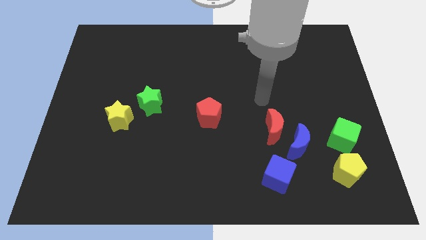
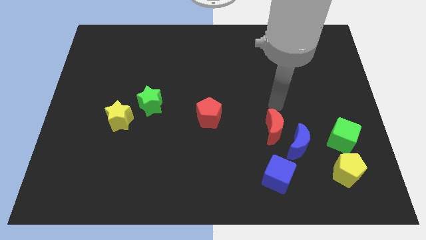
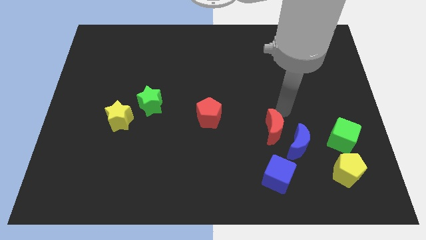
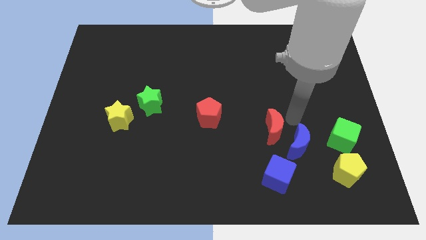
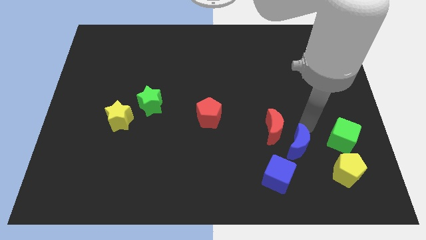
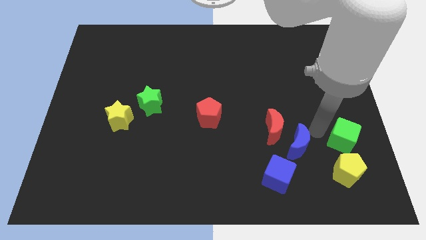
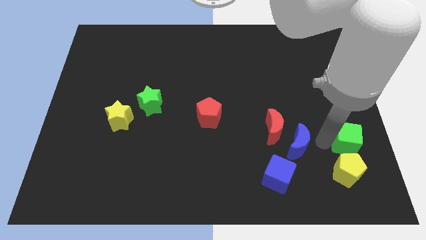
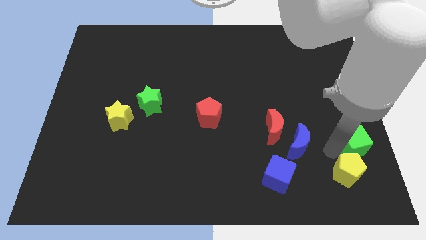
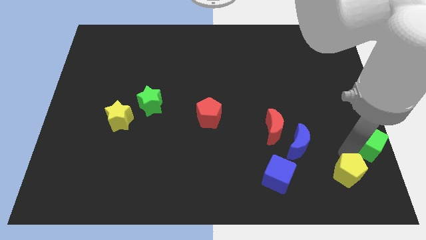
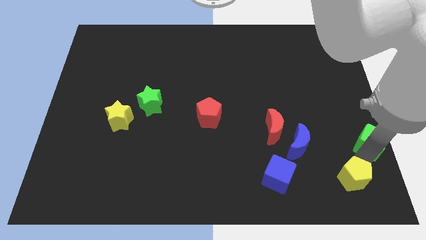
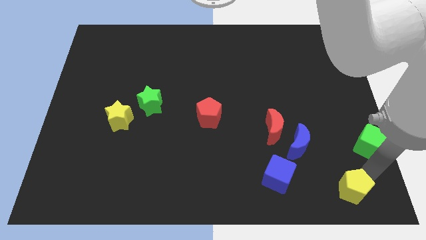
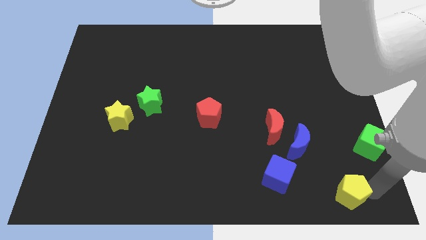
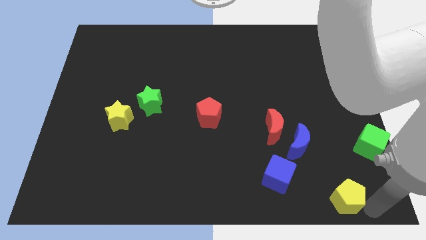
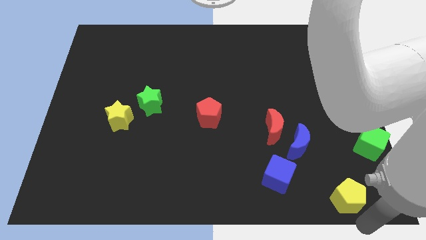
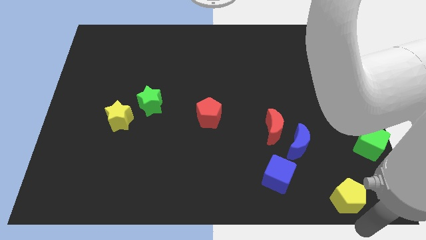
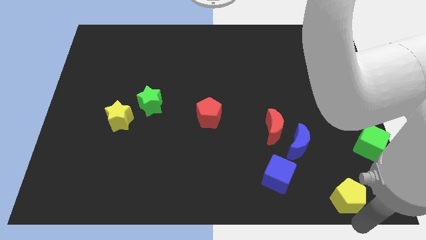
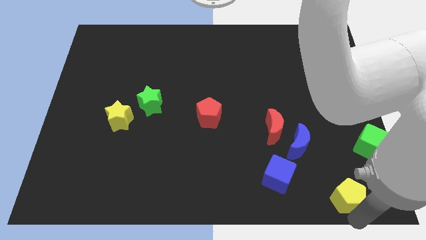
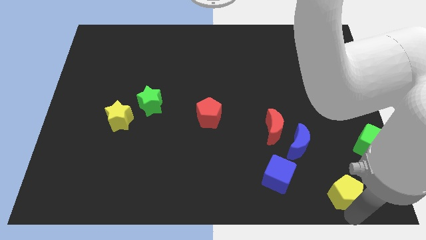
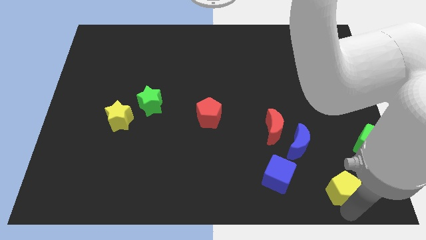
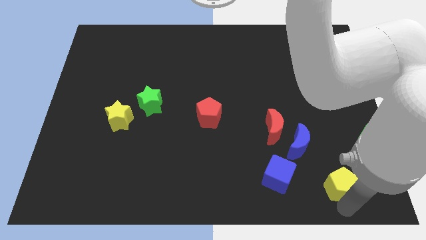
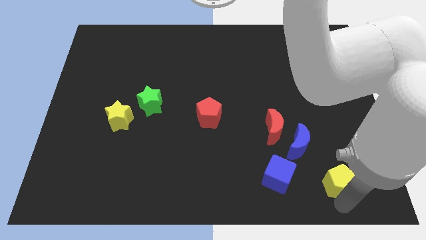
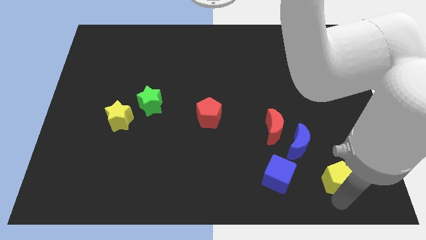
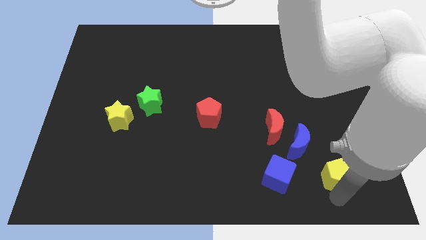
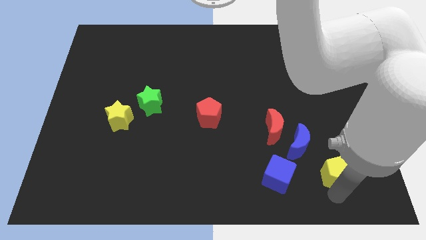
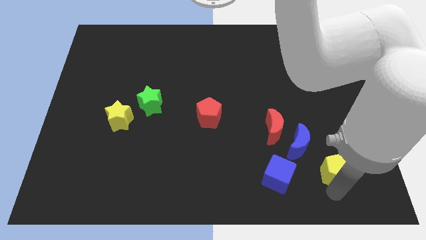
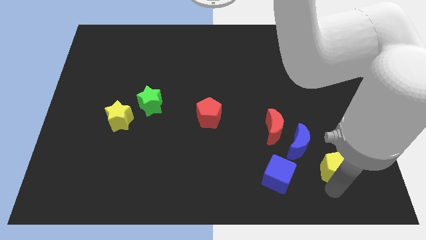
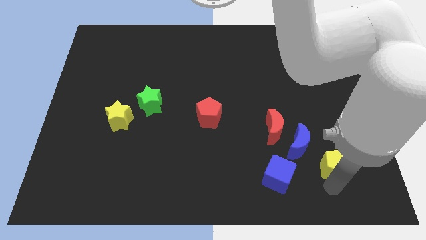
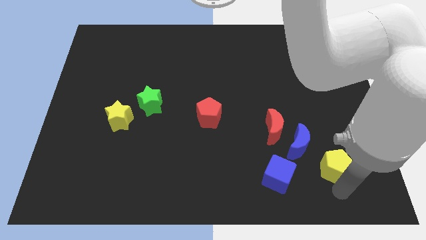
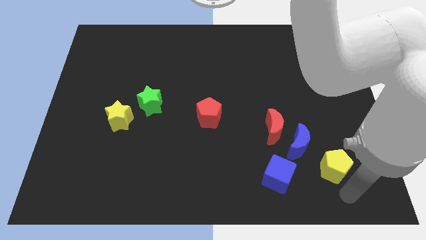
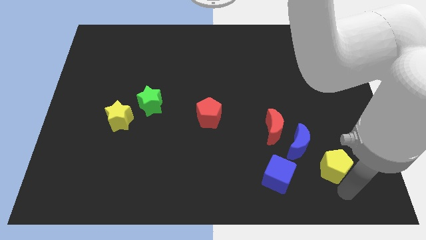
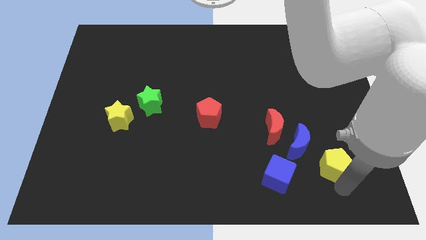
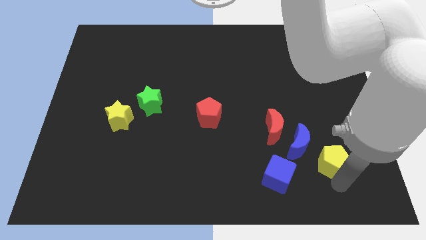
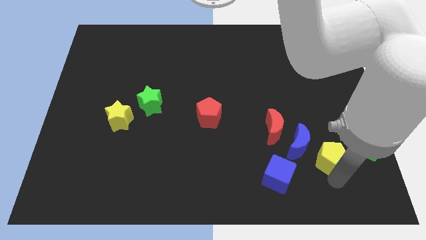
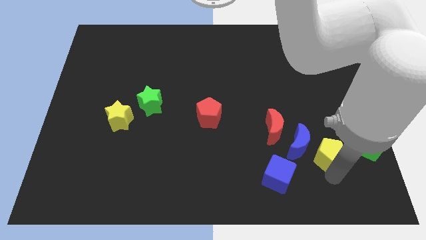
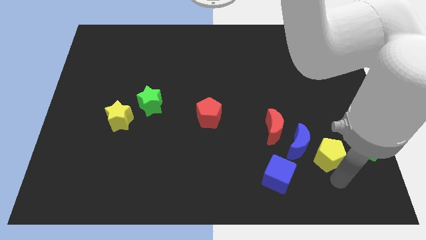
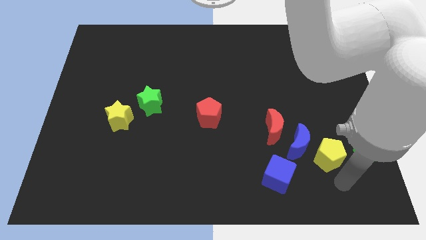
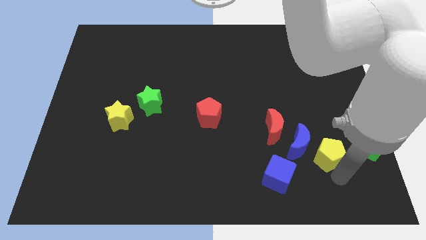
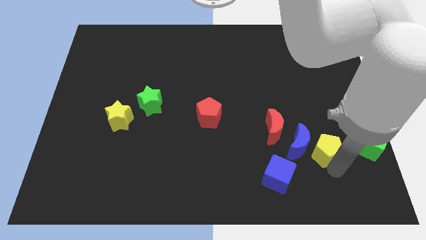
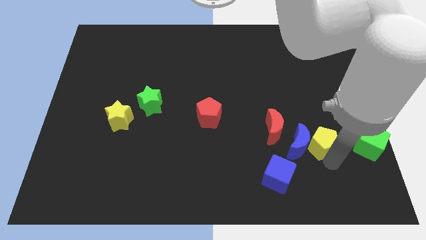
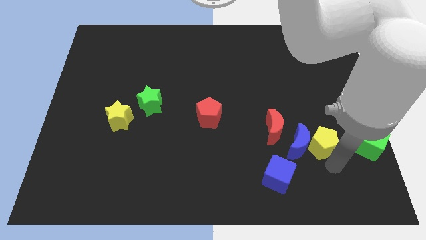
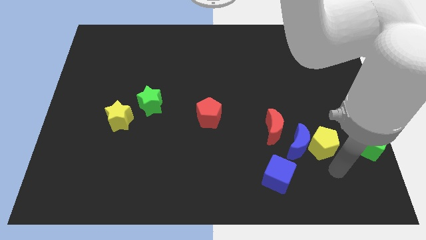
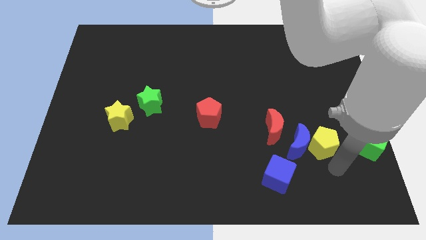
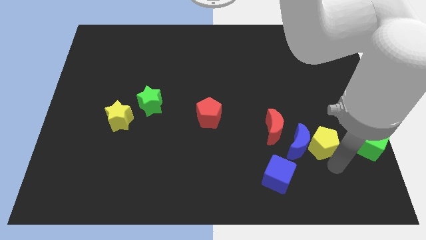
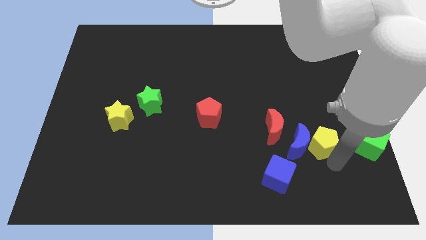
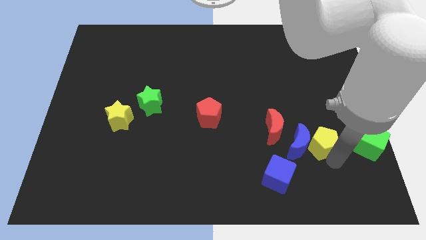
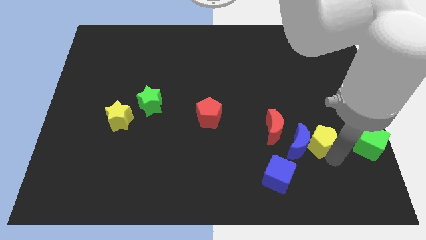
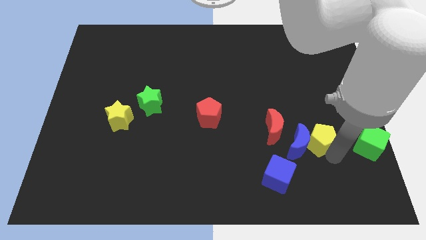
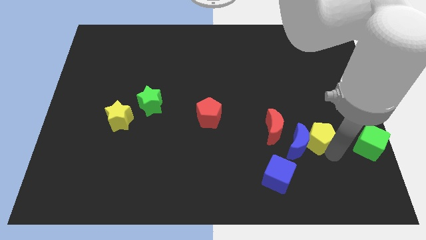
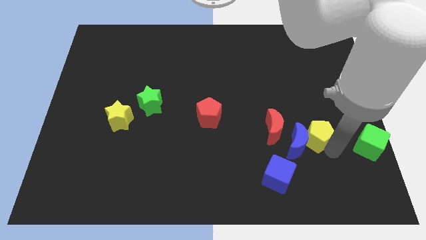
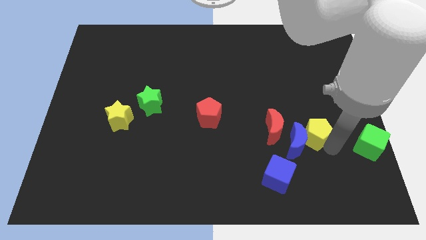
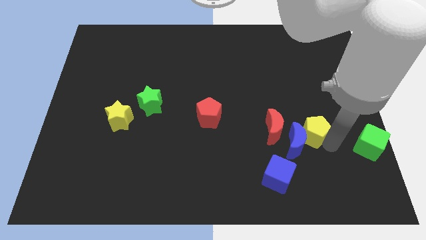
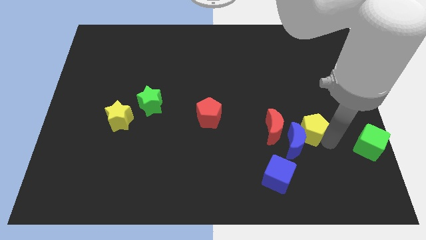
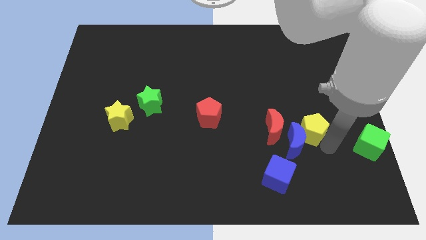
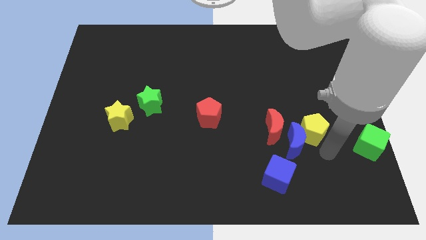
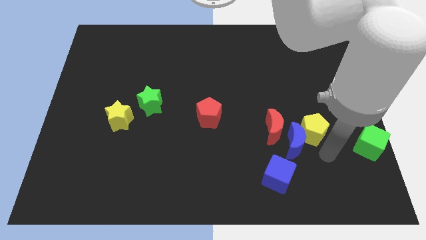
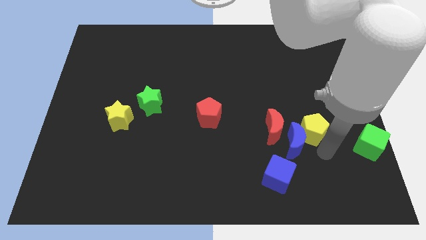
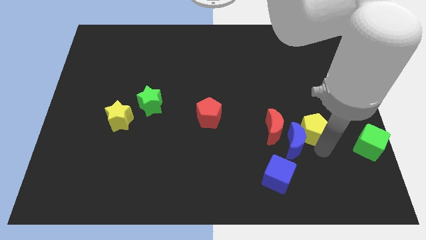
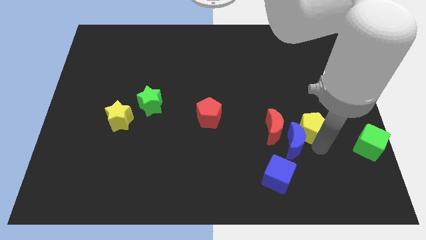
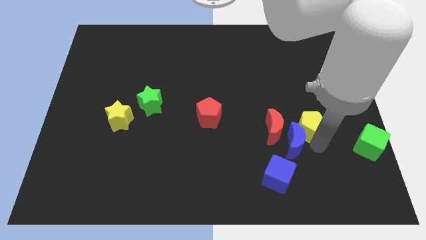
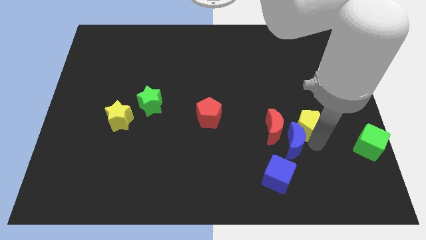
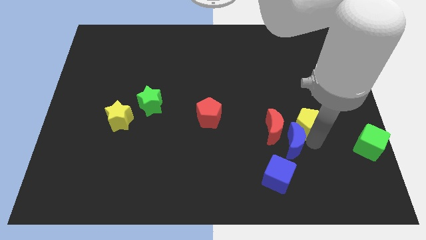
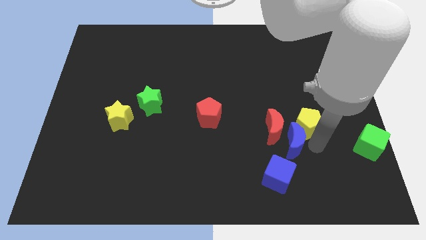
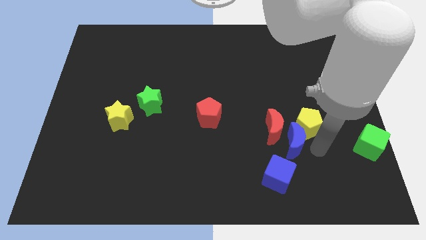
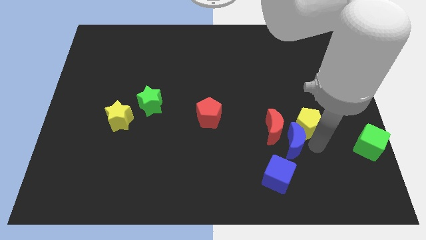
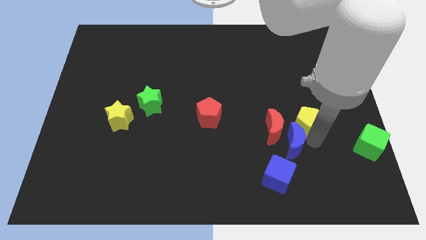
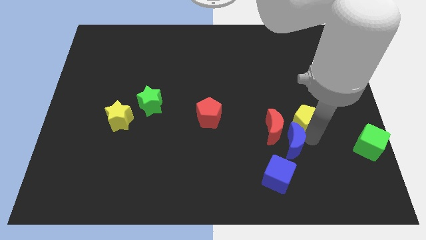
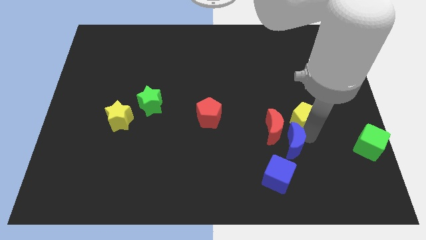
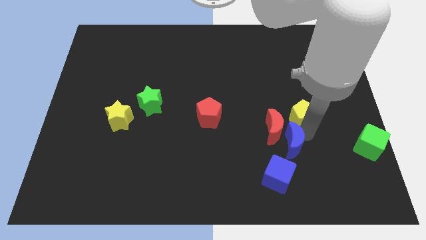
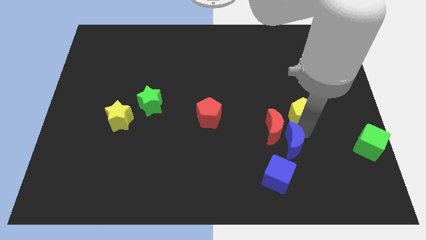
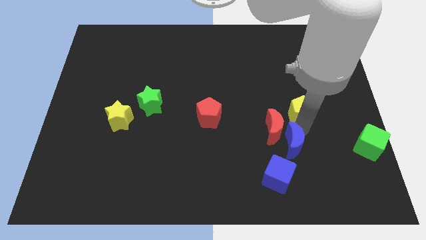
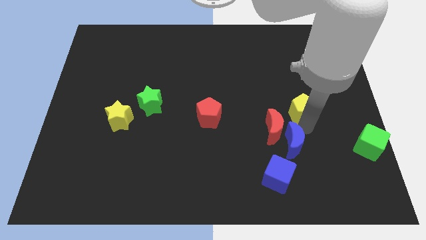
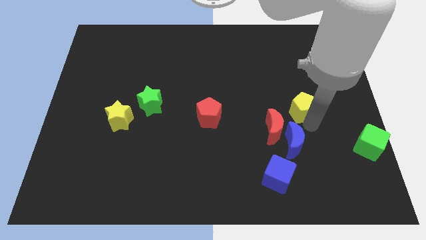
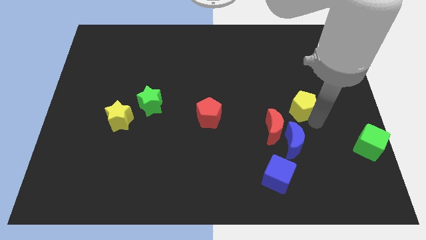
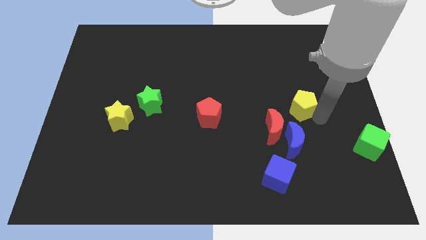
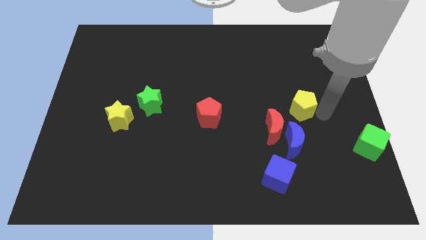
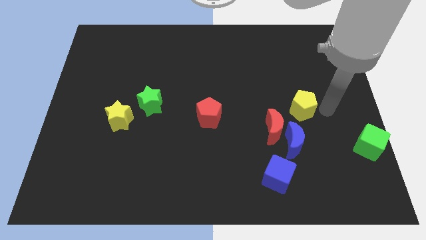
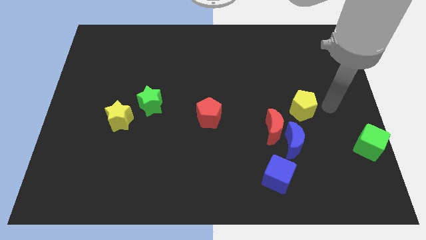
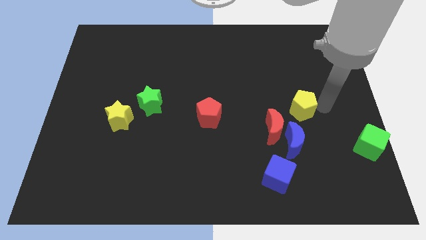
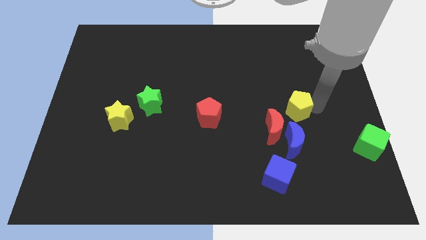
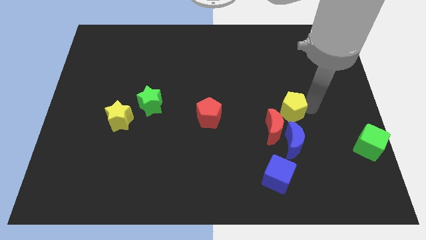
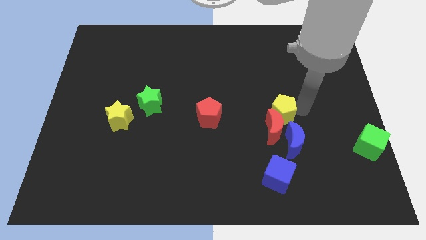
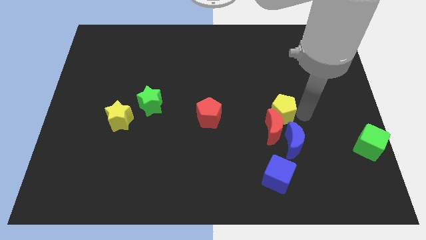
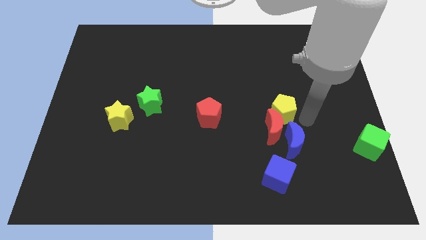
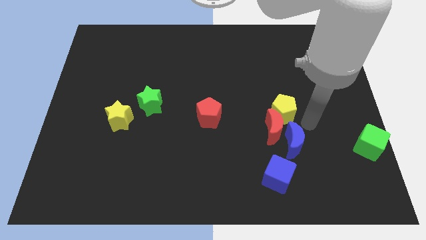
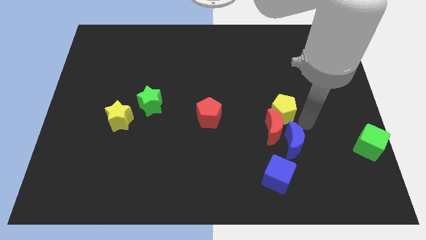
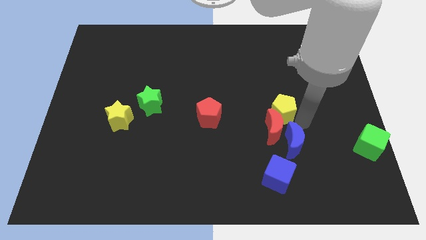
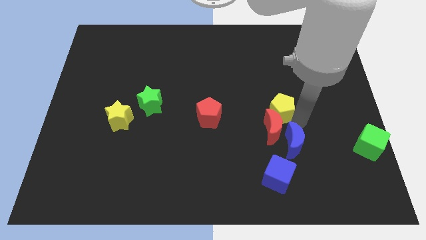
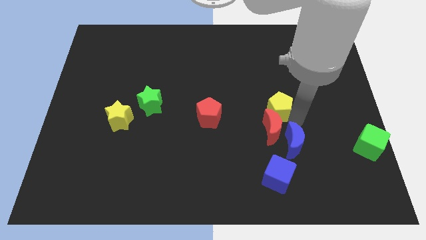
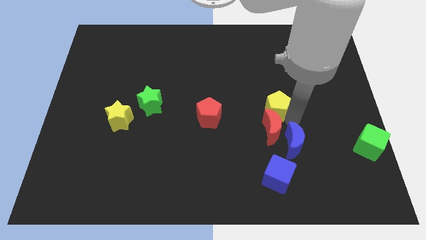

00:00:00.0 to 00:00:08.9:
push the yellow pentagon up and left
